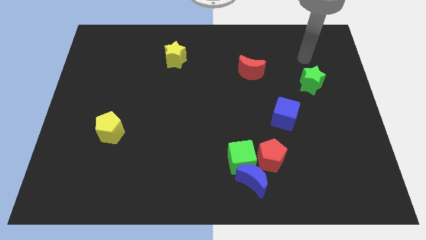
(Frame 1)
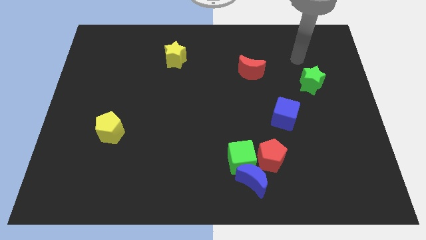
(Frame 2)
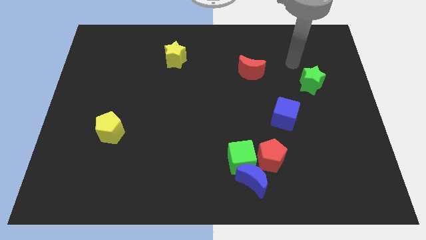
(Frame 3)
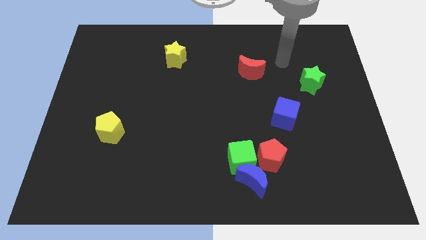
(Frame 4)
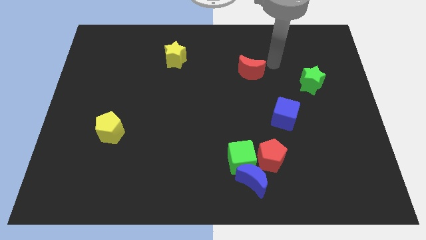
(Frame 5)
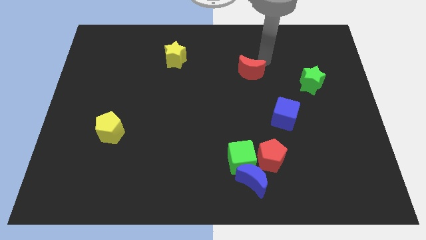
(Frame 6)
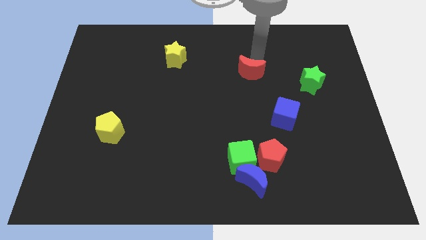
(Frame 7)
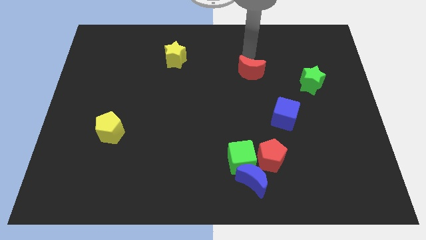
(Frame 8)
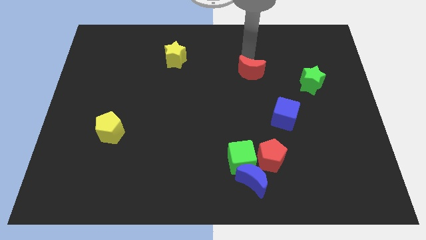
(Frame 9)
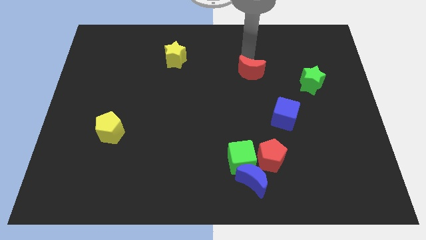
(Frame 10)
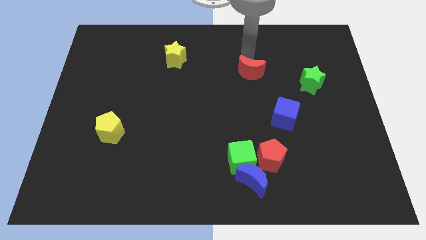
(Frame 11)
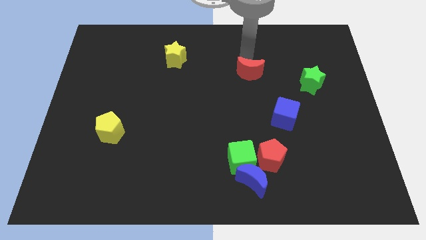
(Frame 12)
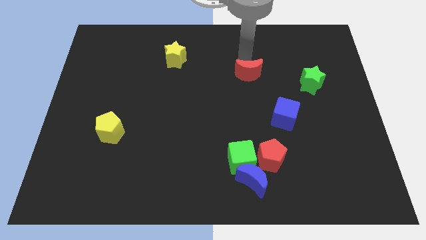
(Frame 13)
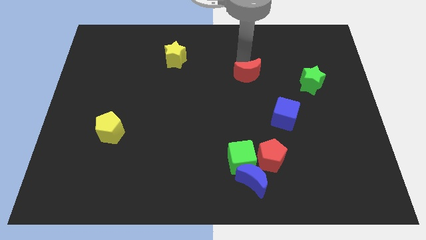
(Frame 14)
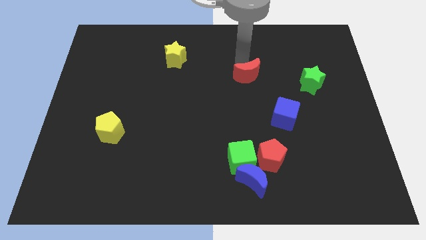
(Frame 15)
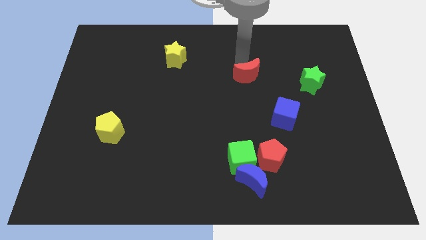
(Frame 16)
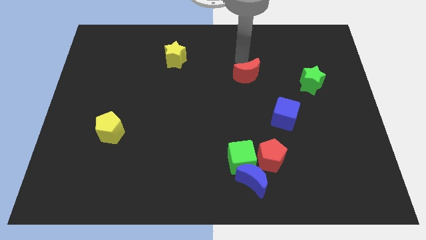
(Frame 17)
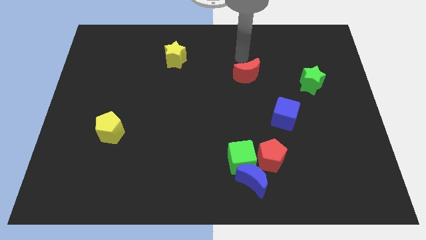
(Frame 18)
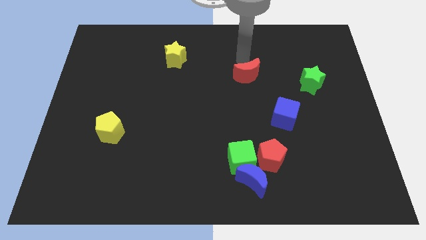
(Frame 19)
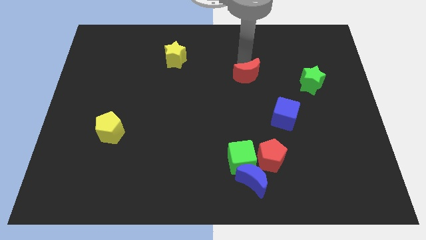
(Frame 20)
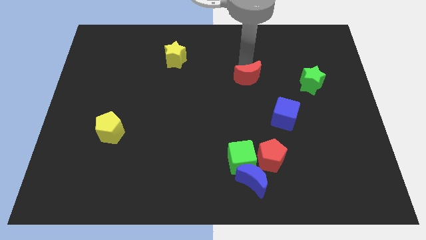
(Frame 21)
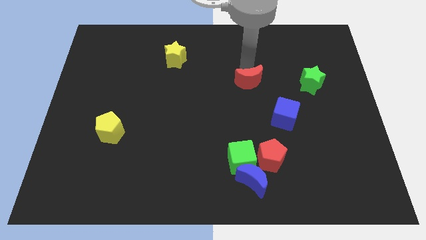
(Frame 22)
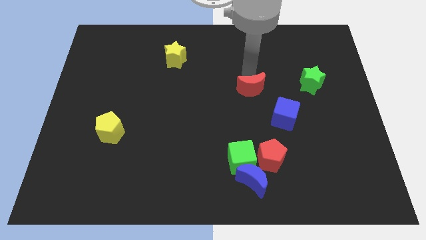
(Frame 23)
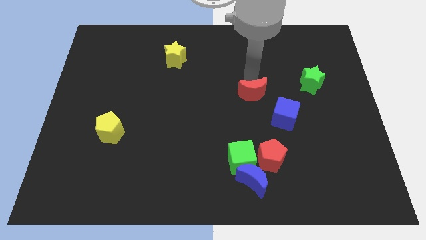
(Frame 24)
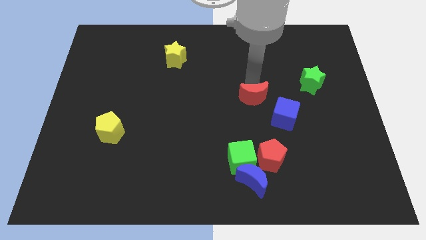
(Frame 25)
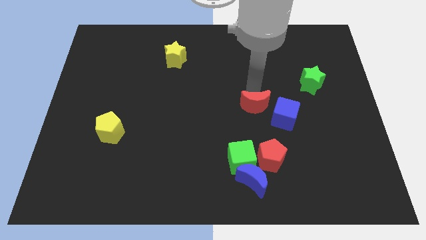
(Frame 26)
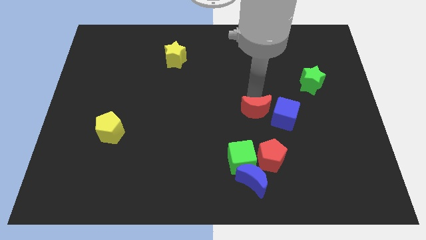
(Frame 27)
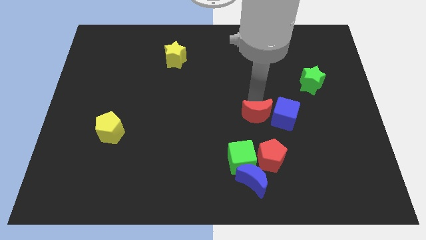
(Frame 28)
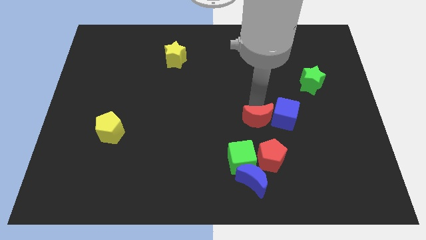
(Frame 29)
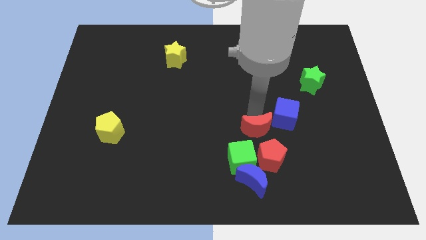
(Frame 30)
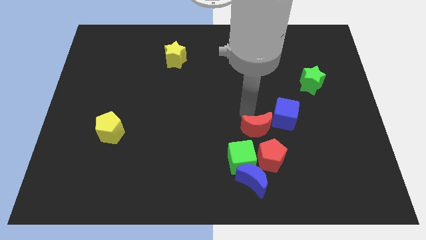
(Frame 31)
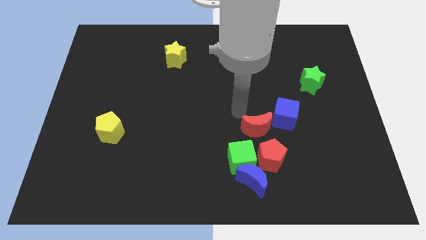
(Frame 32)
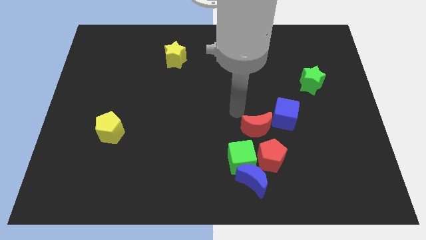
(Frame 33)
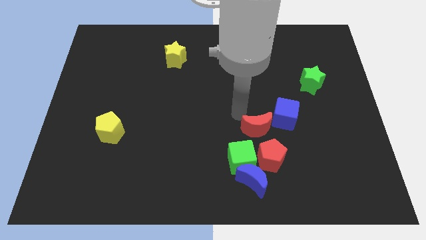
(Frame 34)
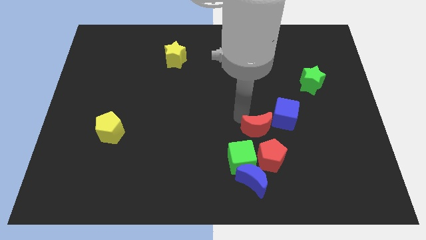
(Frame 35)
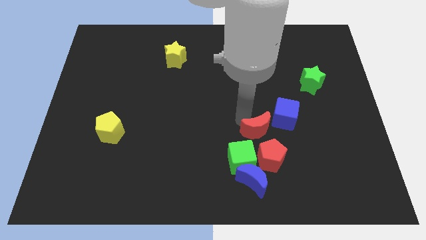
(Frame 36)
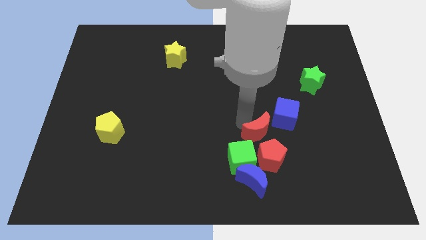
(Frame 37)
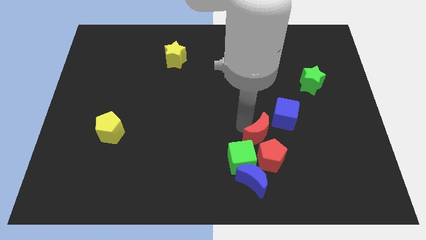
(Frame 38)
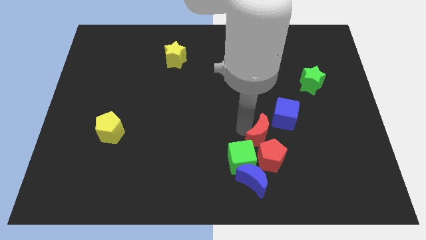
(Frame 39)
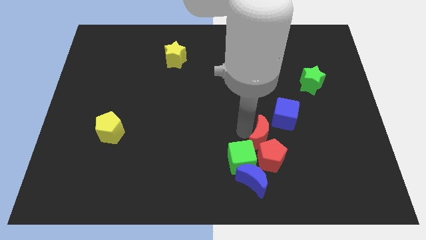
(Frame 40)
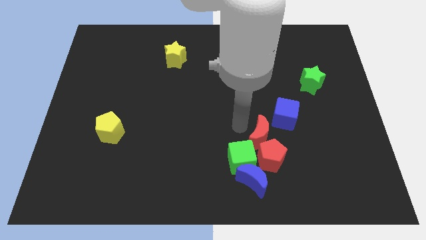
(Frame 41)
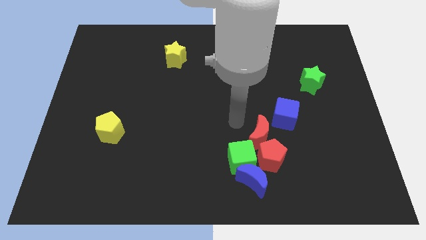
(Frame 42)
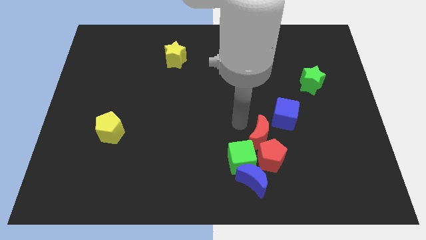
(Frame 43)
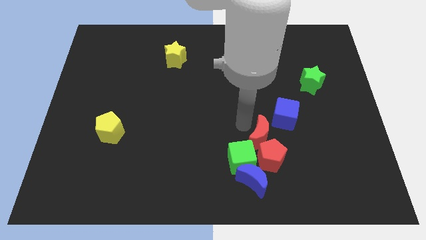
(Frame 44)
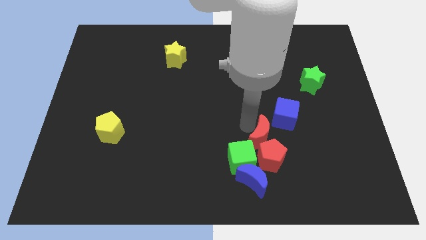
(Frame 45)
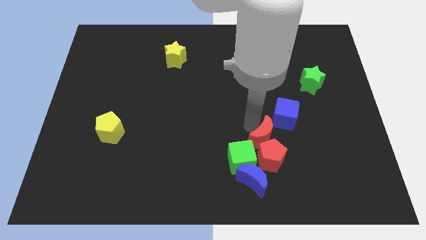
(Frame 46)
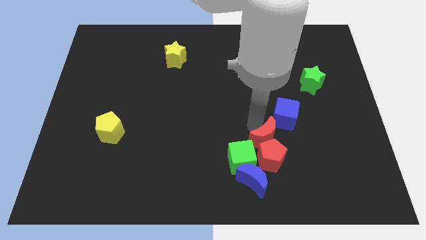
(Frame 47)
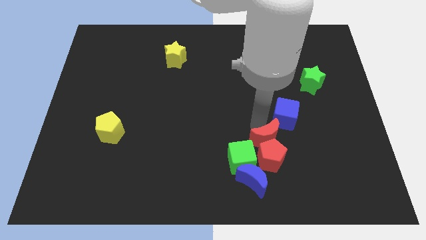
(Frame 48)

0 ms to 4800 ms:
move the red moon to the bottom of the blue cube

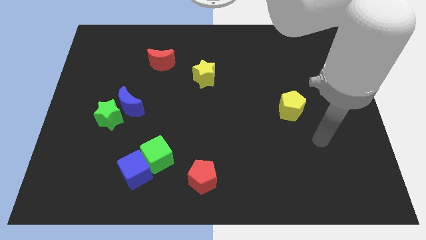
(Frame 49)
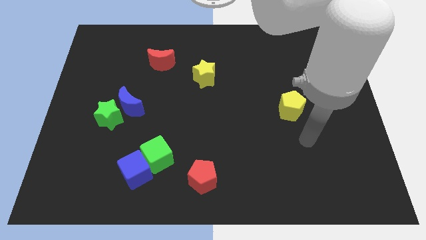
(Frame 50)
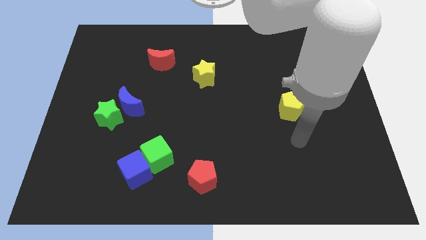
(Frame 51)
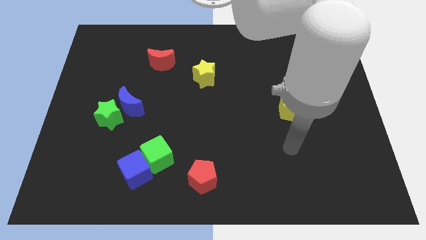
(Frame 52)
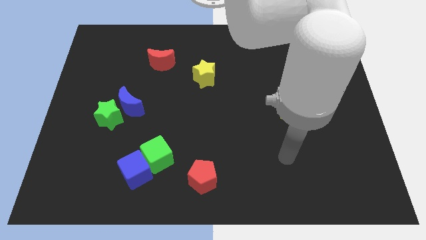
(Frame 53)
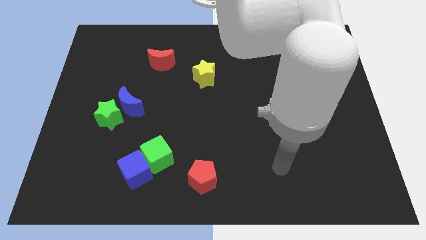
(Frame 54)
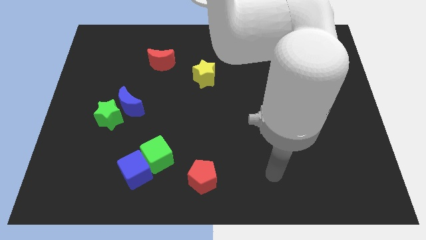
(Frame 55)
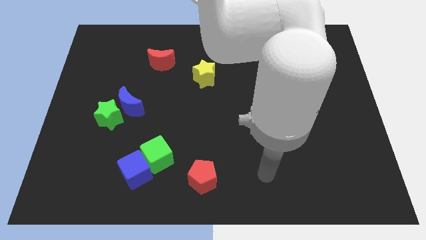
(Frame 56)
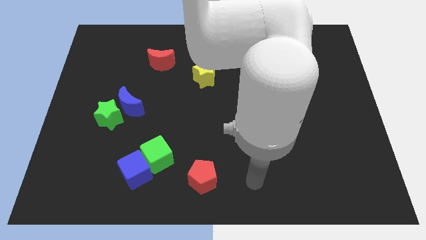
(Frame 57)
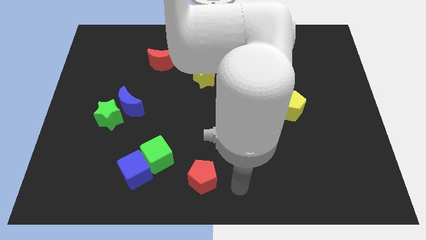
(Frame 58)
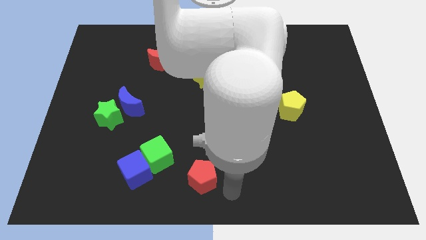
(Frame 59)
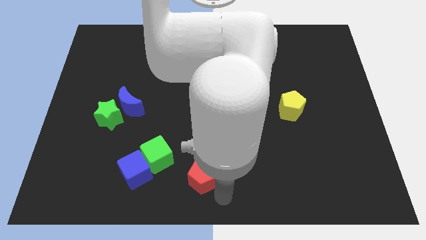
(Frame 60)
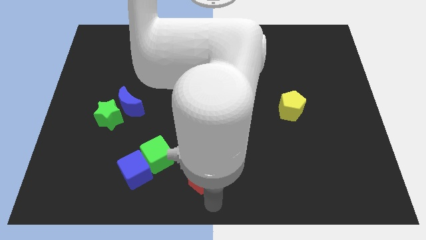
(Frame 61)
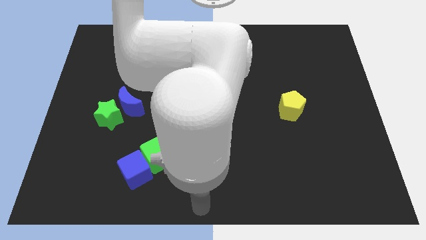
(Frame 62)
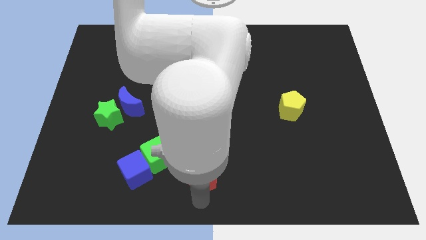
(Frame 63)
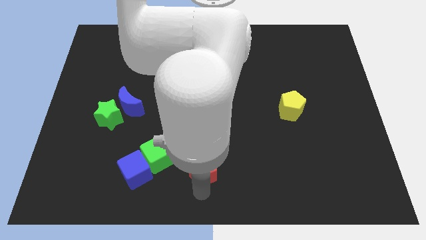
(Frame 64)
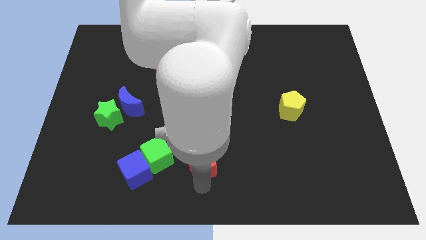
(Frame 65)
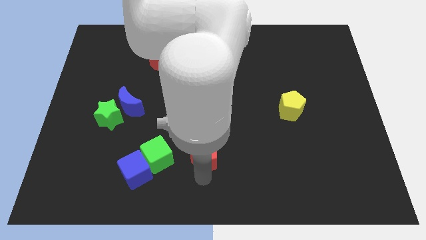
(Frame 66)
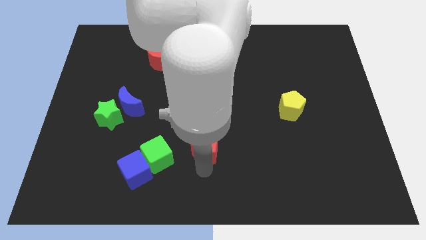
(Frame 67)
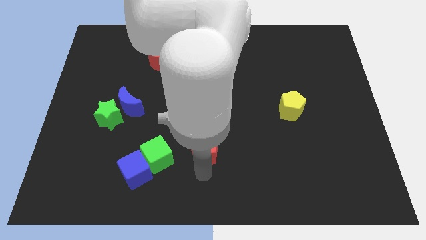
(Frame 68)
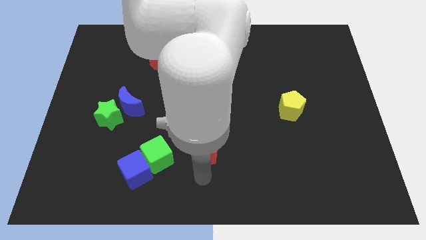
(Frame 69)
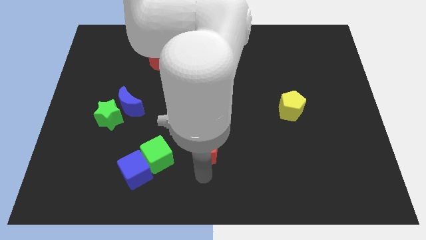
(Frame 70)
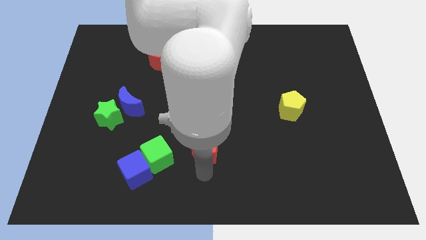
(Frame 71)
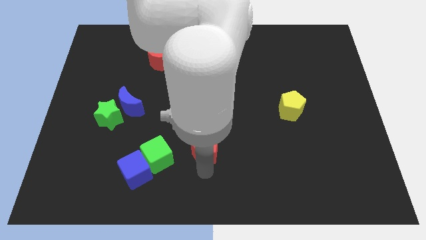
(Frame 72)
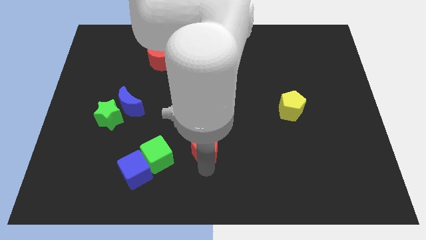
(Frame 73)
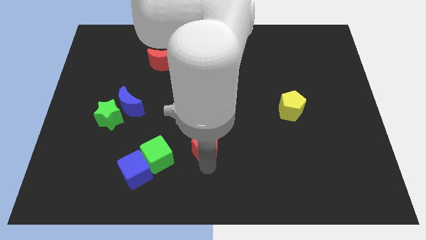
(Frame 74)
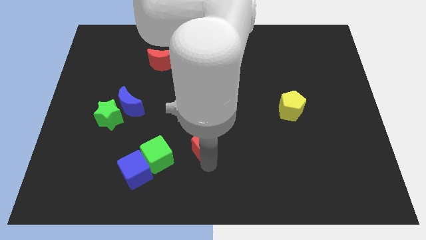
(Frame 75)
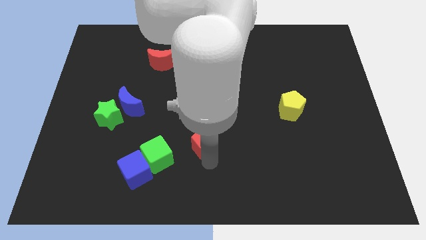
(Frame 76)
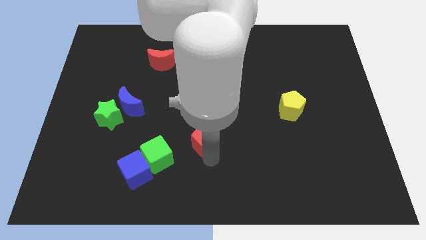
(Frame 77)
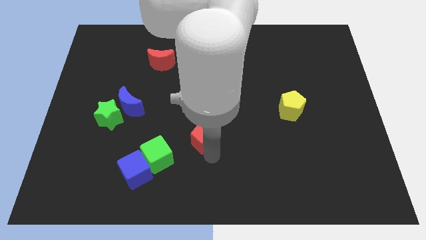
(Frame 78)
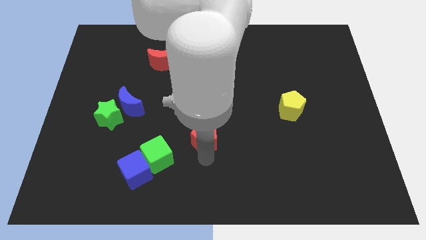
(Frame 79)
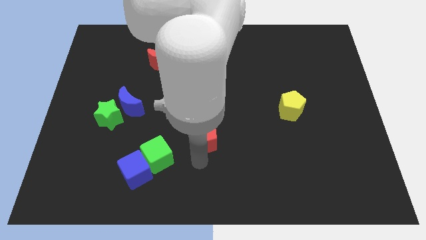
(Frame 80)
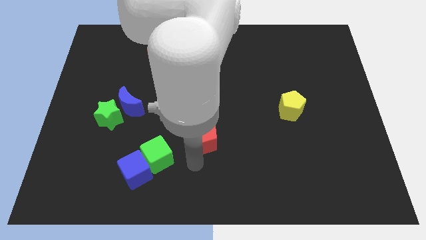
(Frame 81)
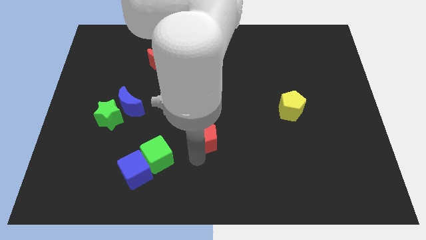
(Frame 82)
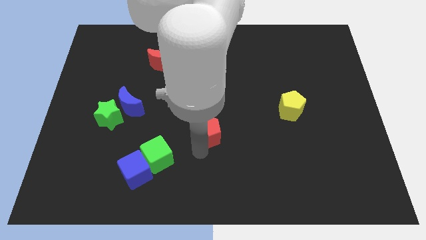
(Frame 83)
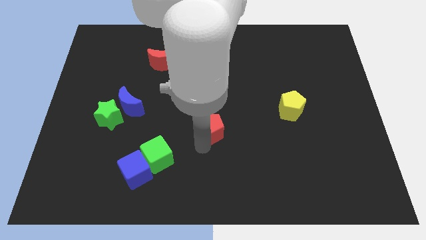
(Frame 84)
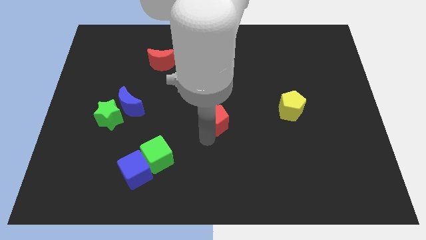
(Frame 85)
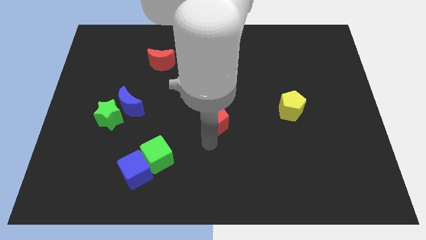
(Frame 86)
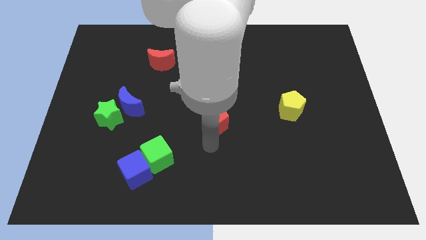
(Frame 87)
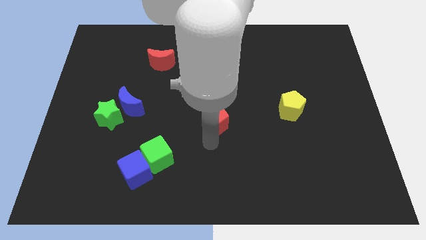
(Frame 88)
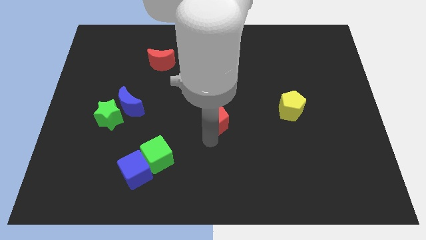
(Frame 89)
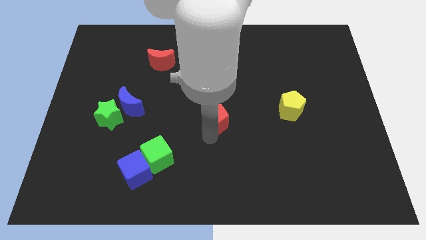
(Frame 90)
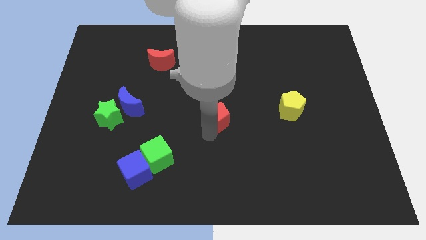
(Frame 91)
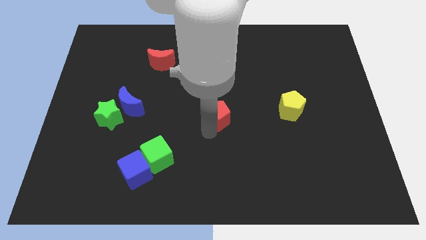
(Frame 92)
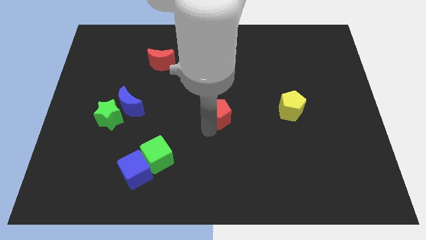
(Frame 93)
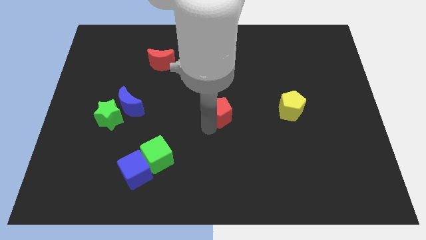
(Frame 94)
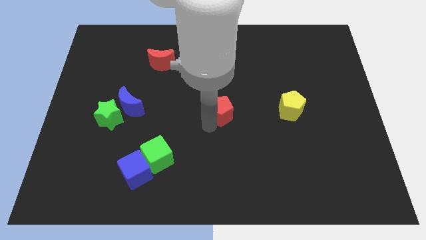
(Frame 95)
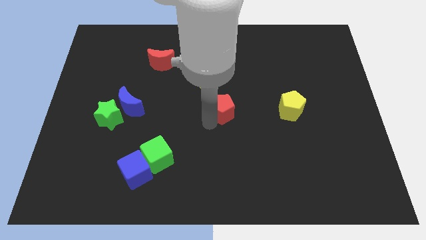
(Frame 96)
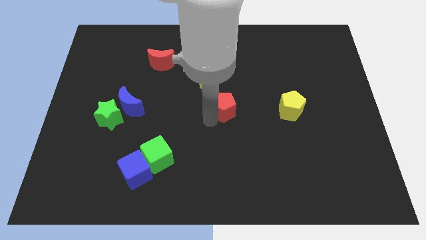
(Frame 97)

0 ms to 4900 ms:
slide the red pentagon to the bottom right side of the yellow star
